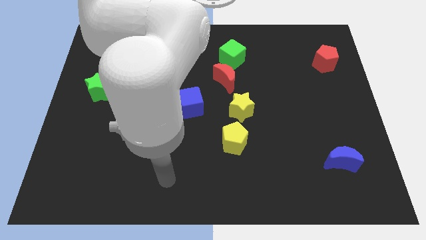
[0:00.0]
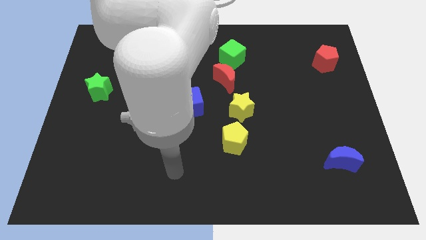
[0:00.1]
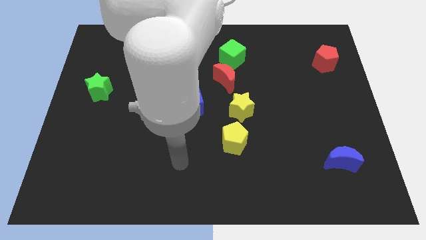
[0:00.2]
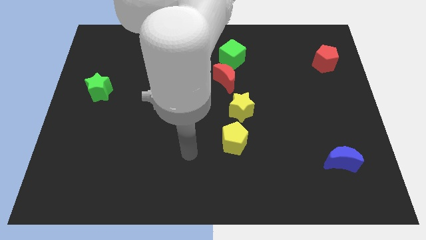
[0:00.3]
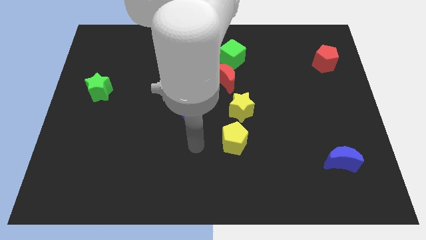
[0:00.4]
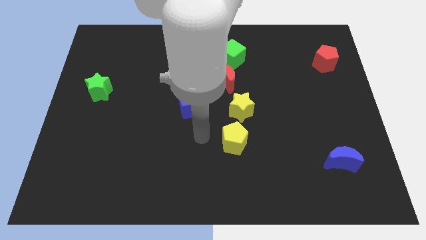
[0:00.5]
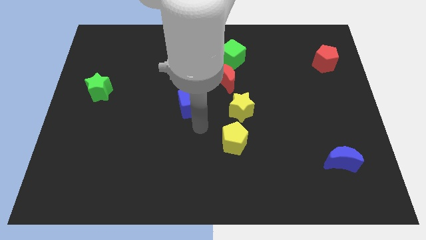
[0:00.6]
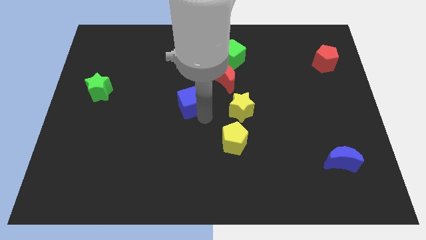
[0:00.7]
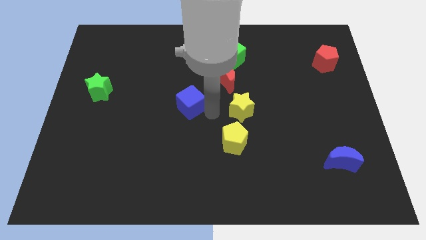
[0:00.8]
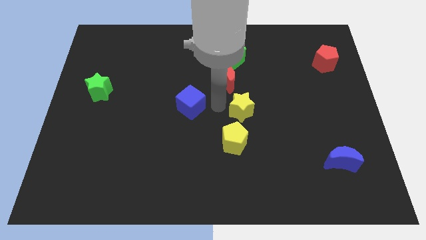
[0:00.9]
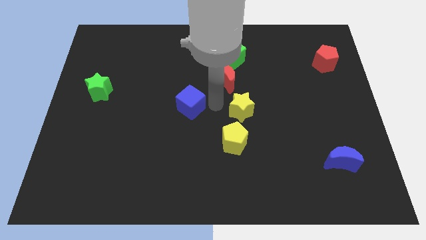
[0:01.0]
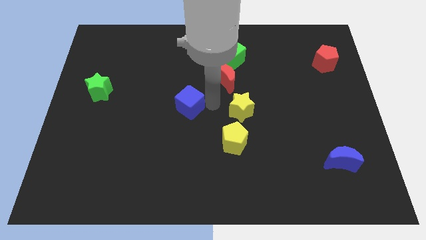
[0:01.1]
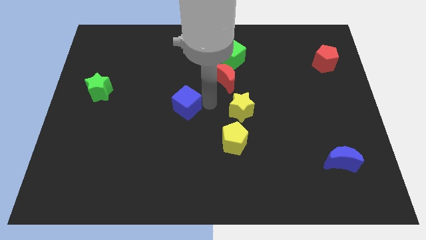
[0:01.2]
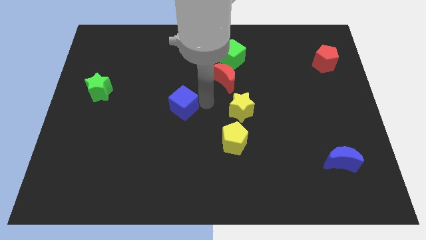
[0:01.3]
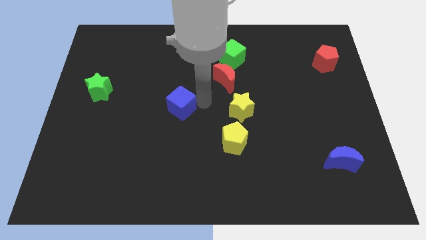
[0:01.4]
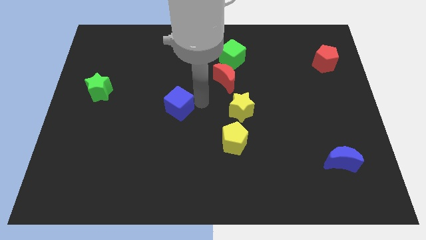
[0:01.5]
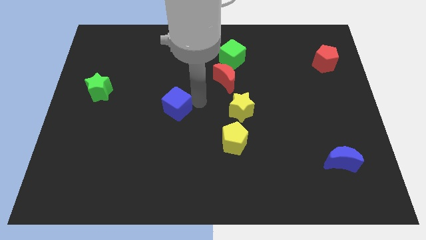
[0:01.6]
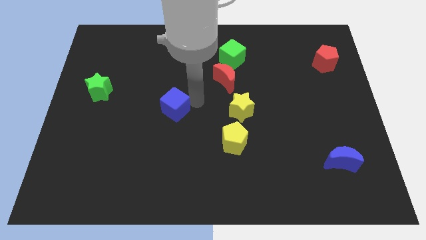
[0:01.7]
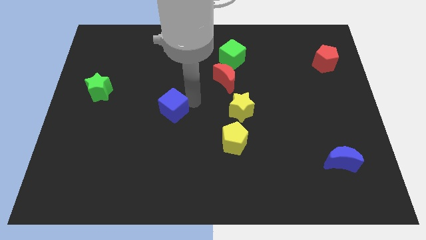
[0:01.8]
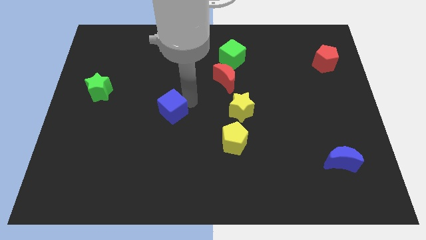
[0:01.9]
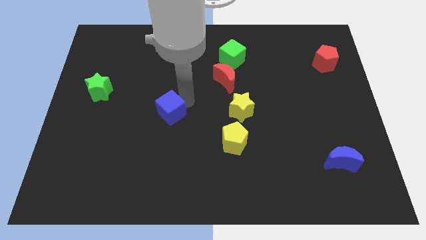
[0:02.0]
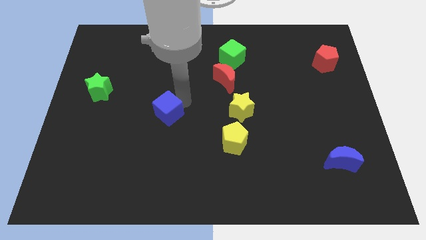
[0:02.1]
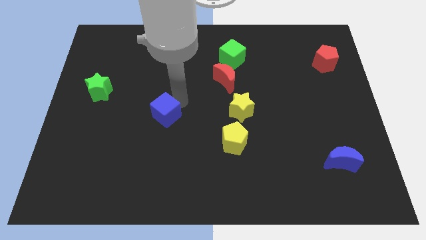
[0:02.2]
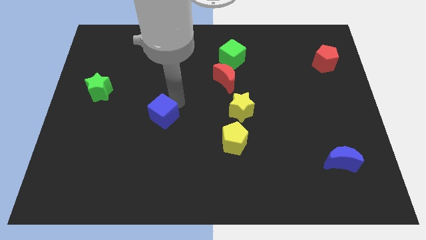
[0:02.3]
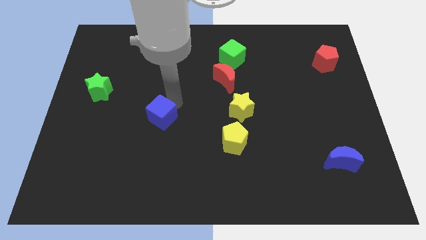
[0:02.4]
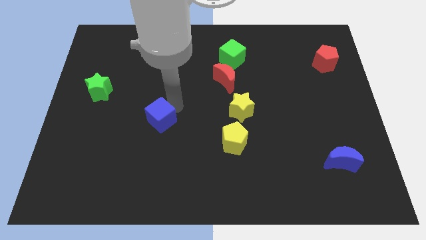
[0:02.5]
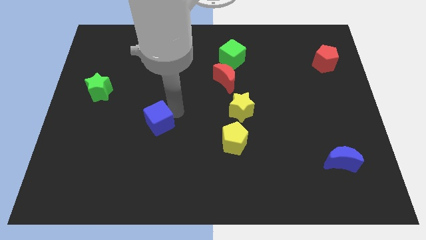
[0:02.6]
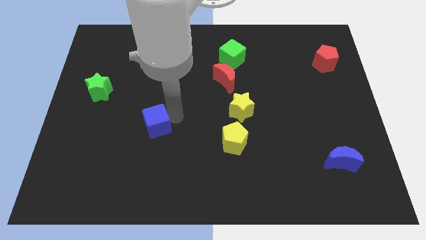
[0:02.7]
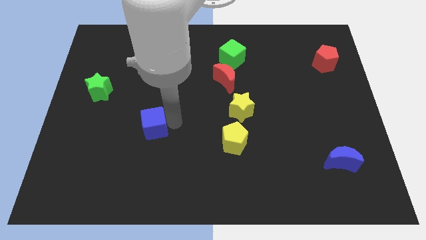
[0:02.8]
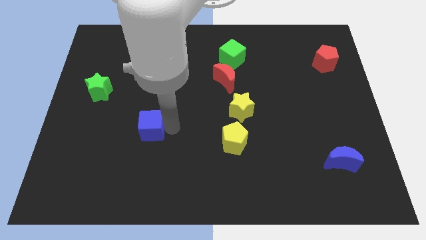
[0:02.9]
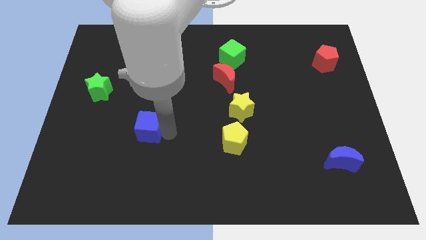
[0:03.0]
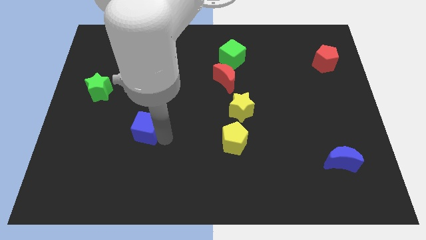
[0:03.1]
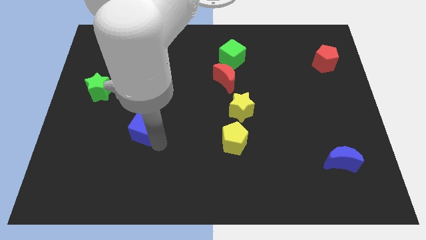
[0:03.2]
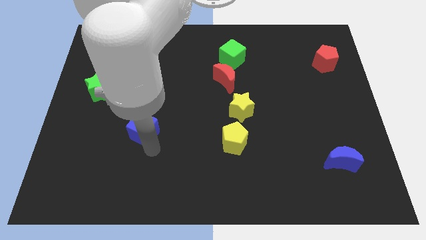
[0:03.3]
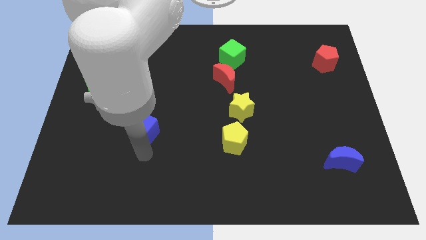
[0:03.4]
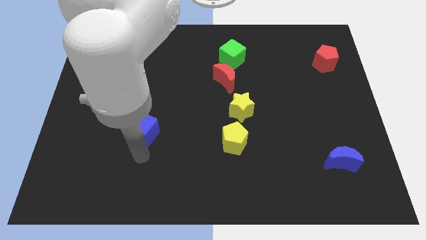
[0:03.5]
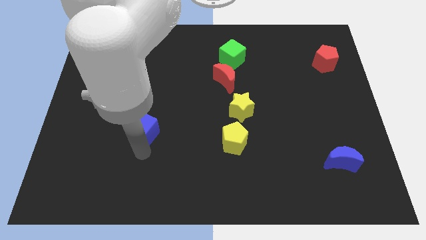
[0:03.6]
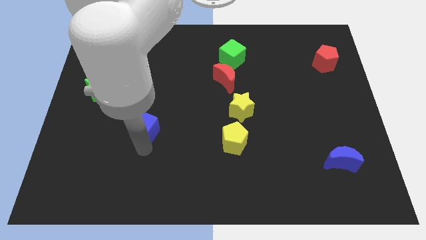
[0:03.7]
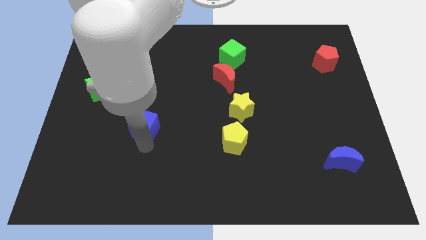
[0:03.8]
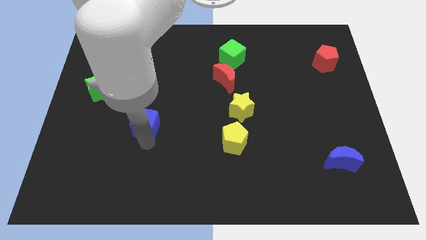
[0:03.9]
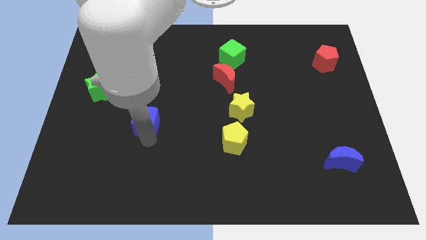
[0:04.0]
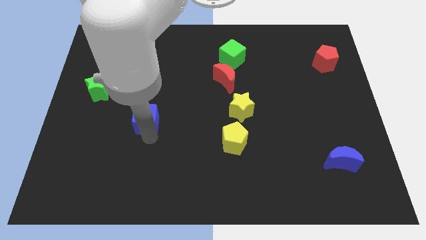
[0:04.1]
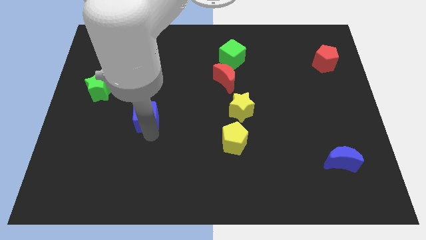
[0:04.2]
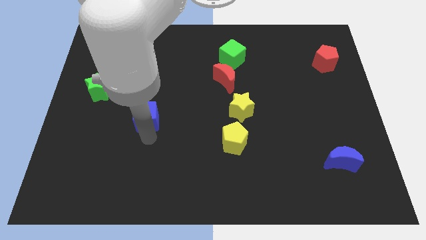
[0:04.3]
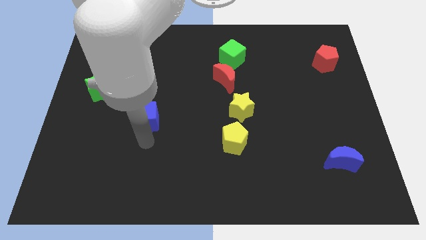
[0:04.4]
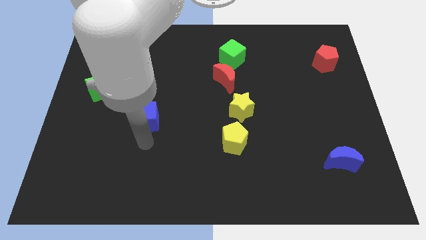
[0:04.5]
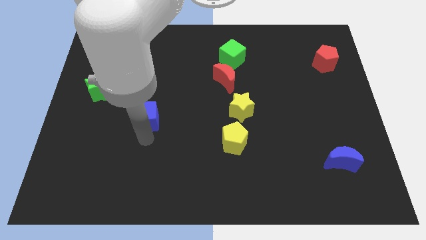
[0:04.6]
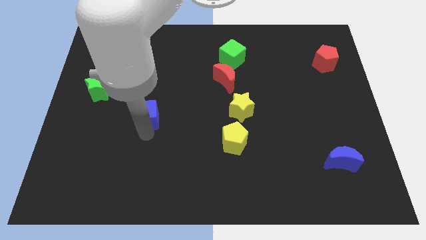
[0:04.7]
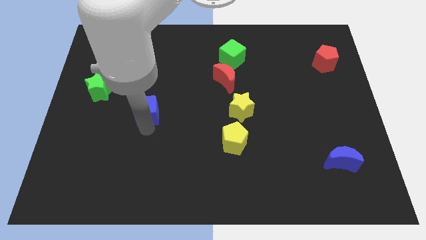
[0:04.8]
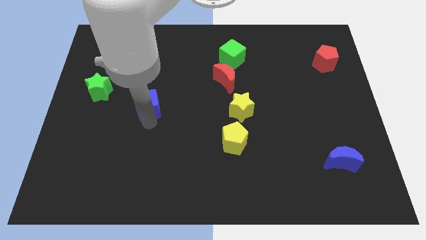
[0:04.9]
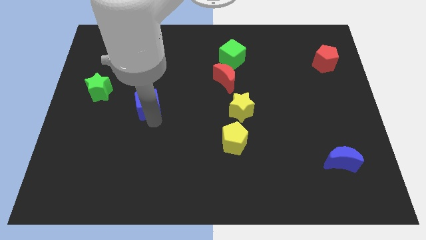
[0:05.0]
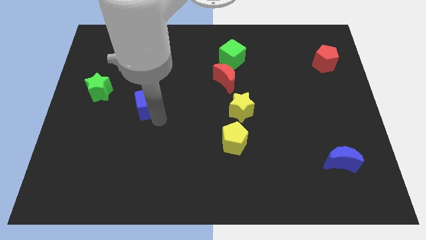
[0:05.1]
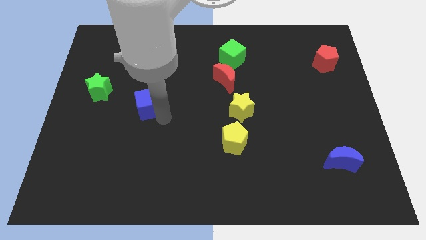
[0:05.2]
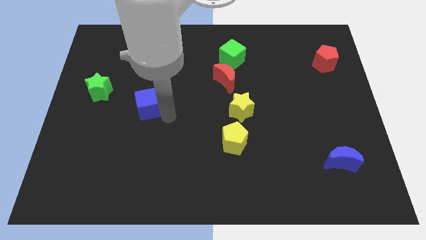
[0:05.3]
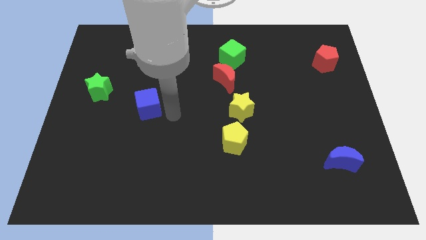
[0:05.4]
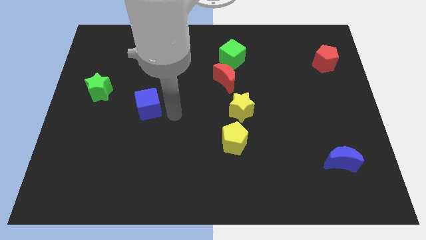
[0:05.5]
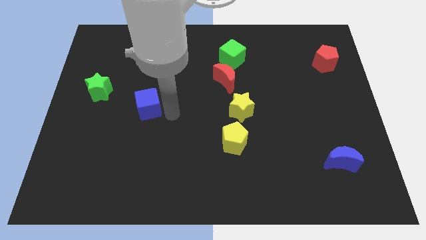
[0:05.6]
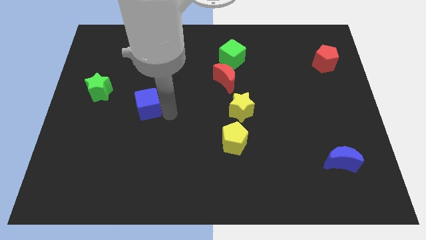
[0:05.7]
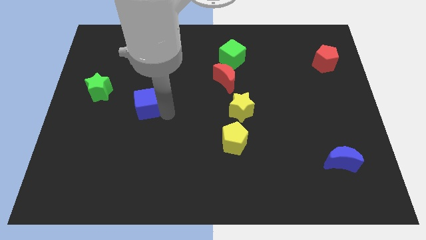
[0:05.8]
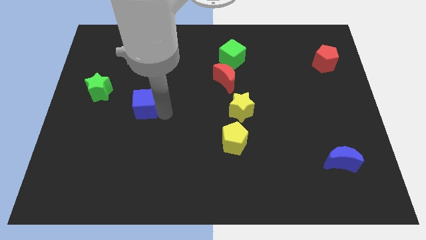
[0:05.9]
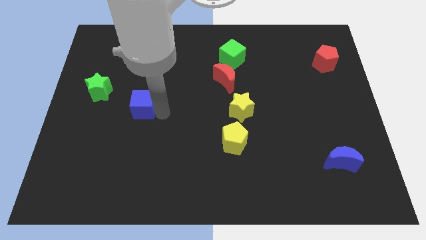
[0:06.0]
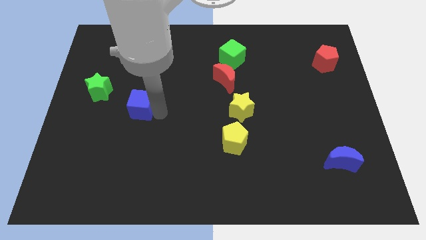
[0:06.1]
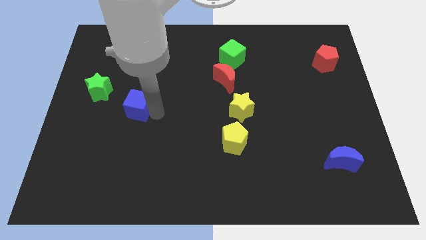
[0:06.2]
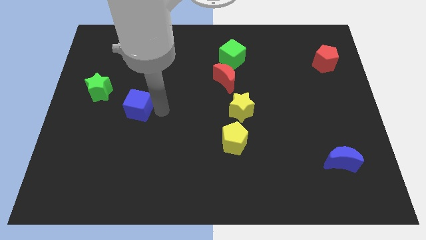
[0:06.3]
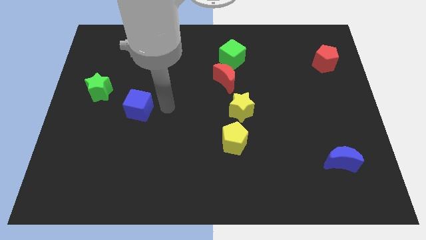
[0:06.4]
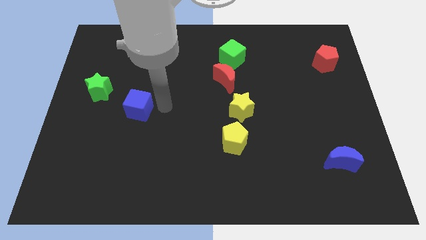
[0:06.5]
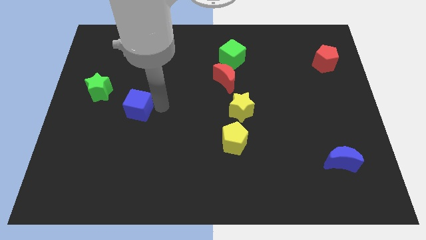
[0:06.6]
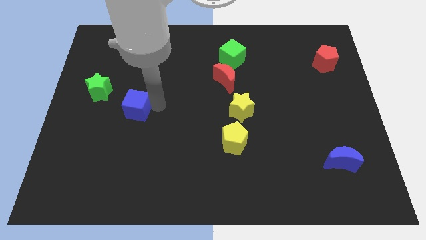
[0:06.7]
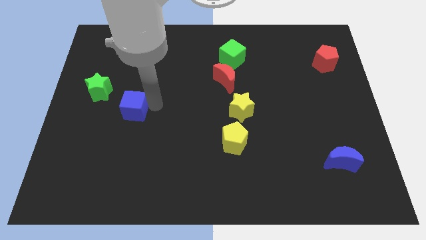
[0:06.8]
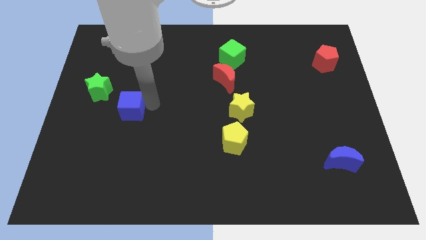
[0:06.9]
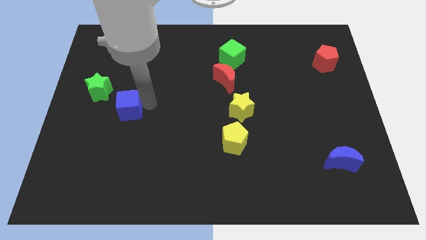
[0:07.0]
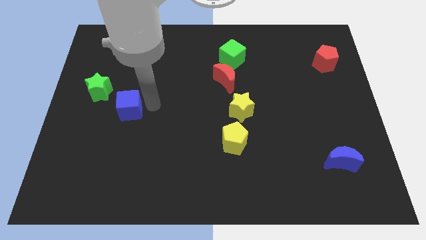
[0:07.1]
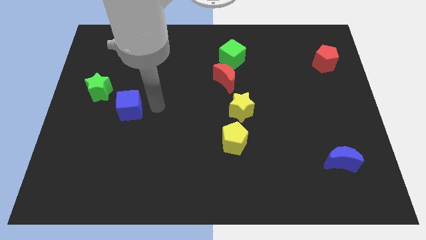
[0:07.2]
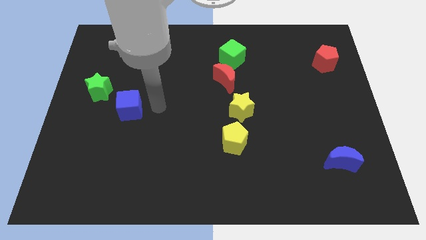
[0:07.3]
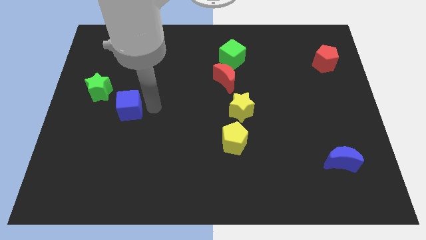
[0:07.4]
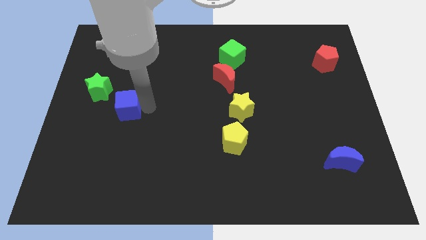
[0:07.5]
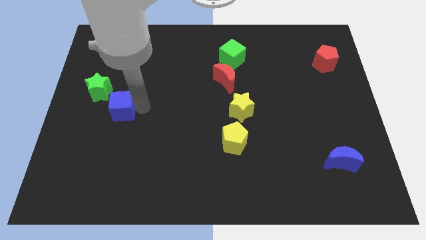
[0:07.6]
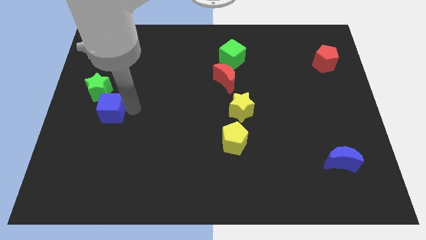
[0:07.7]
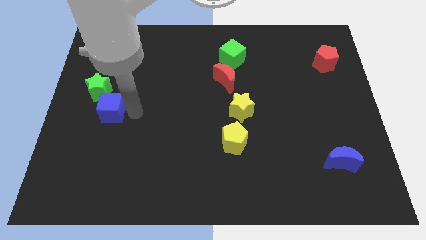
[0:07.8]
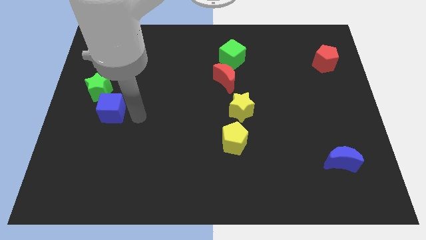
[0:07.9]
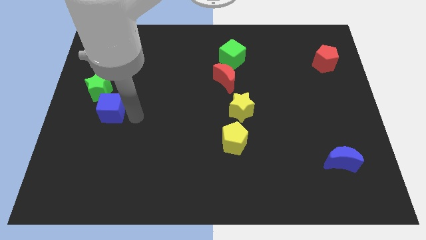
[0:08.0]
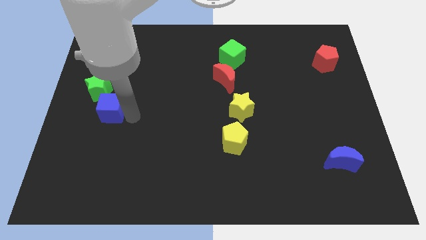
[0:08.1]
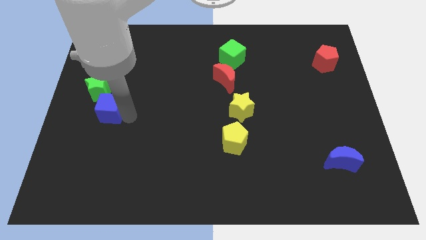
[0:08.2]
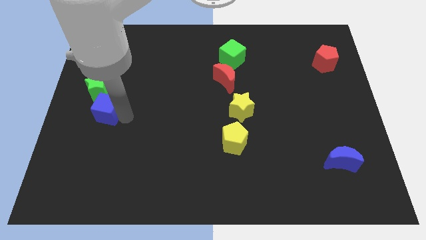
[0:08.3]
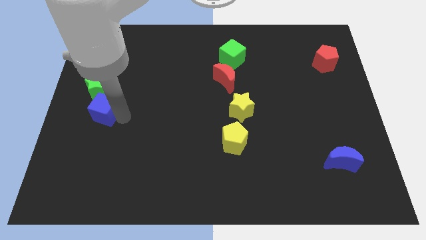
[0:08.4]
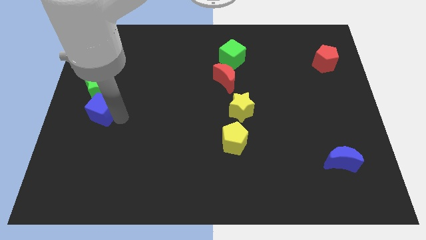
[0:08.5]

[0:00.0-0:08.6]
move the blue cube to the left side
